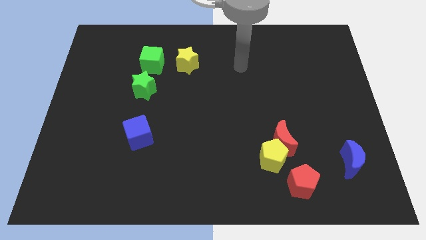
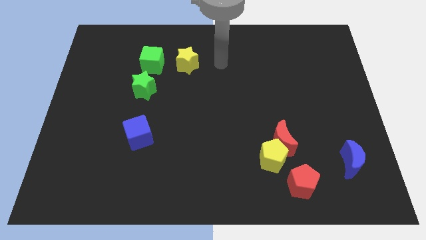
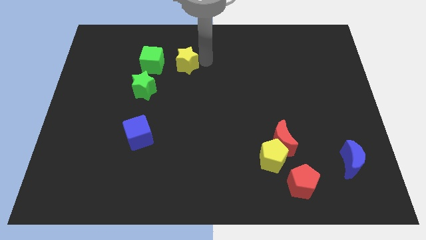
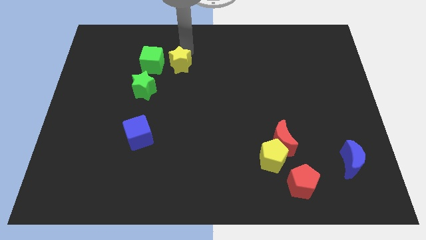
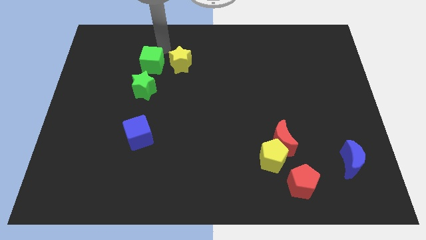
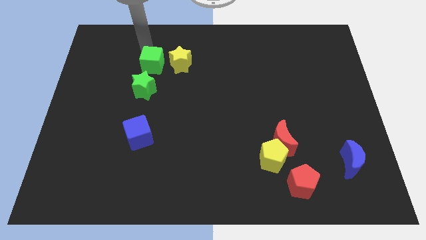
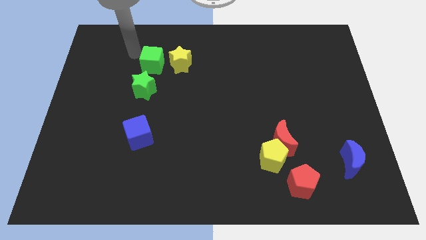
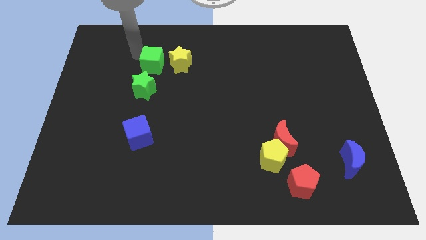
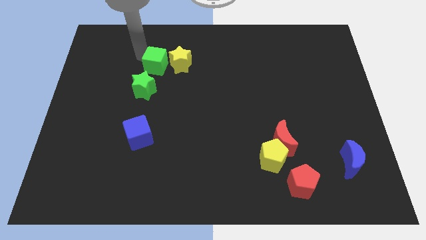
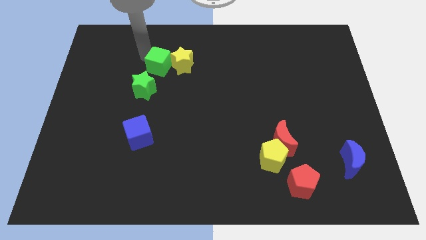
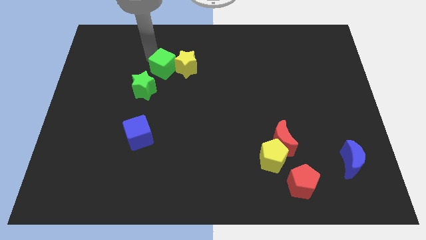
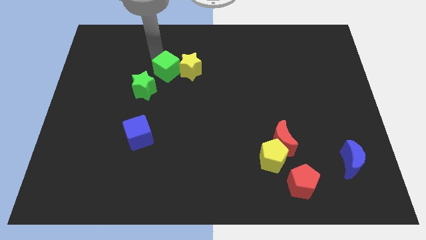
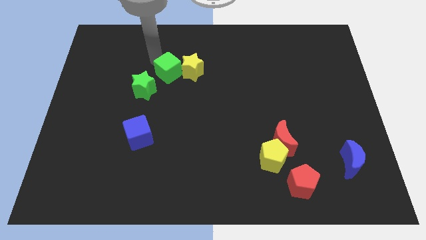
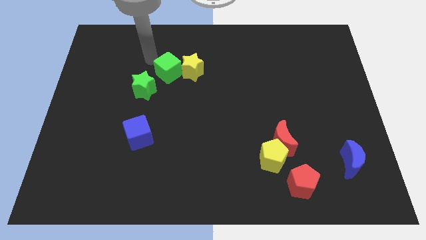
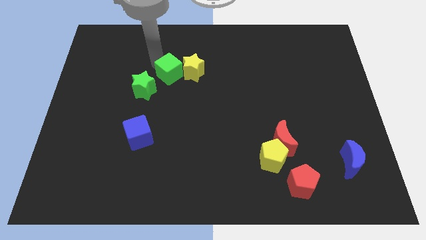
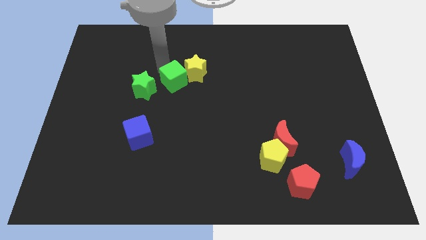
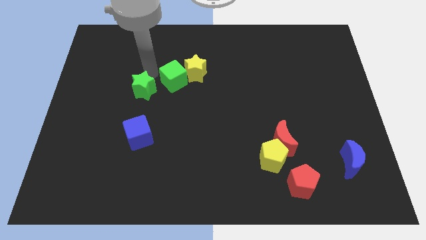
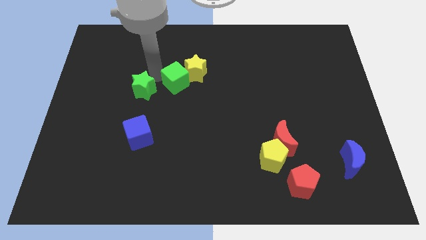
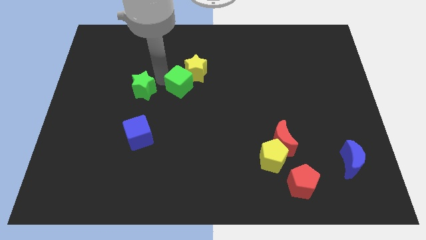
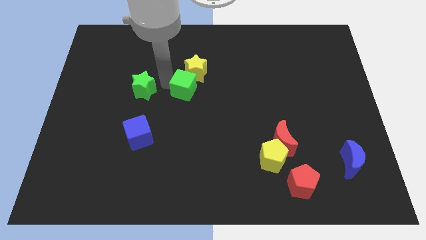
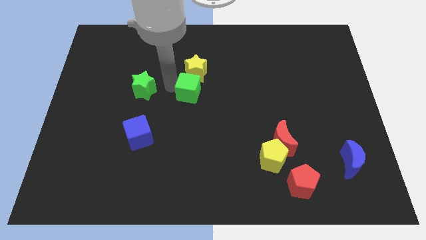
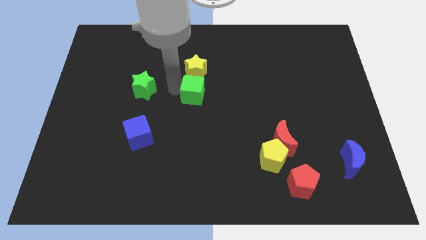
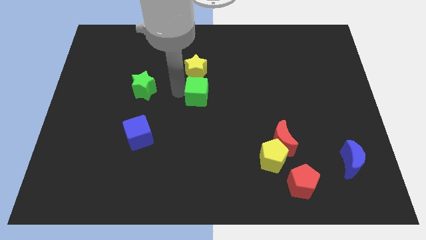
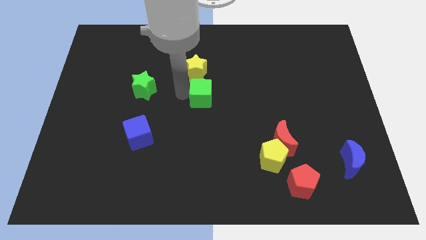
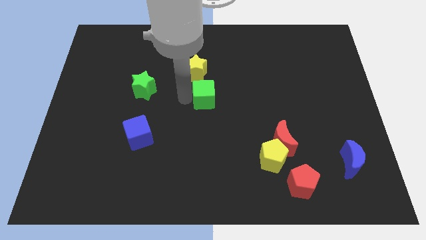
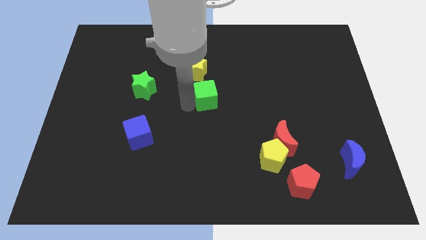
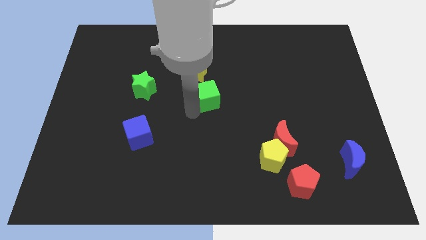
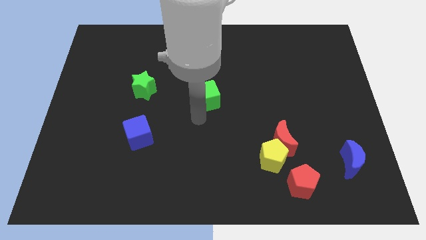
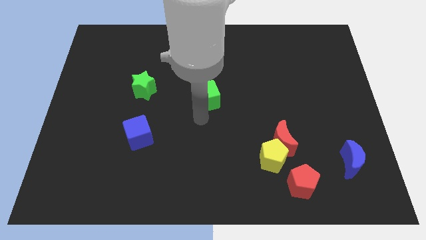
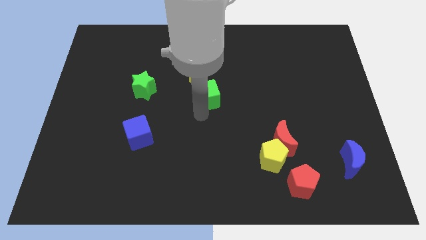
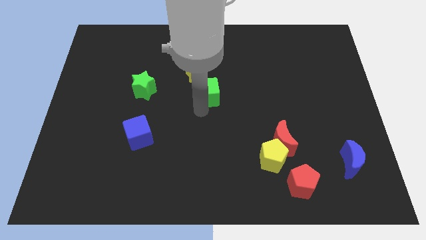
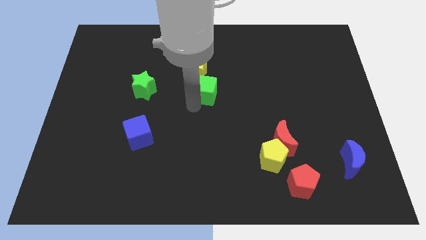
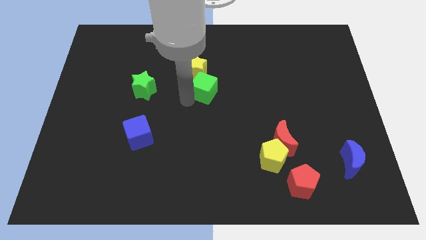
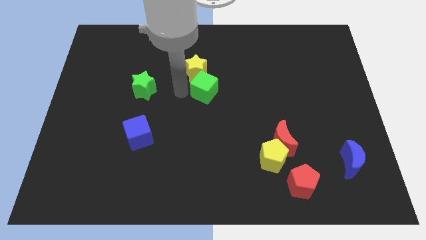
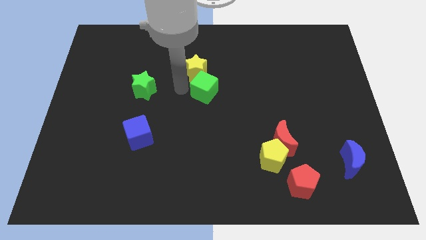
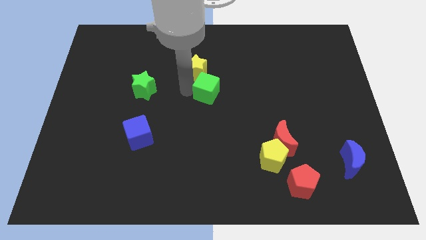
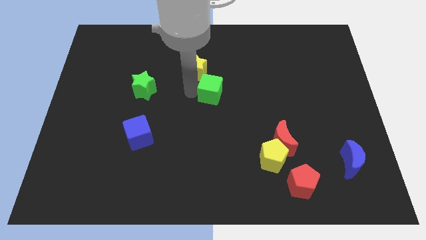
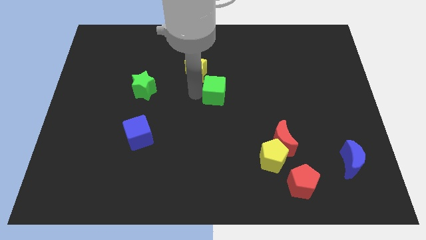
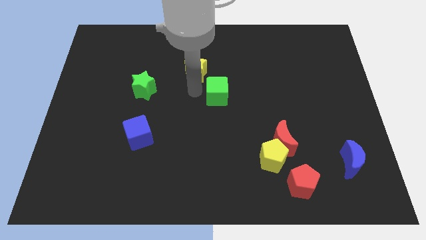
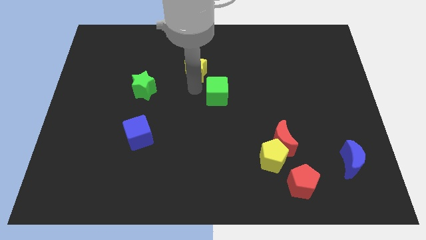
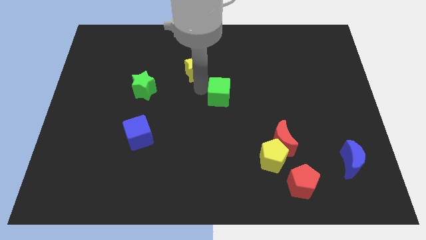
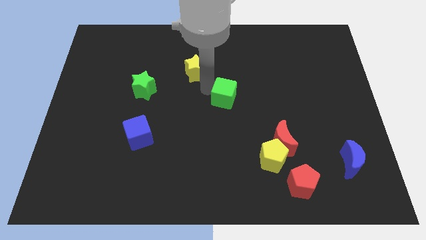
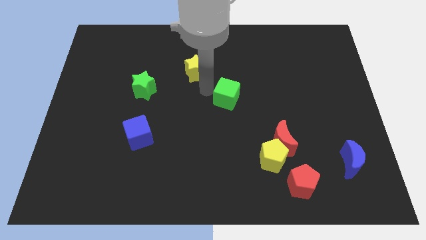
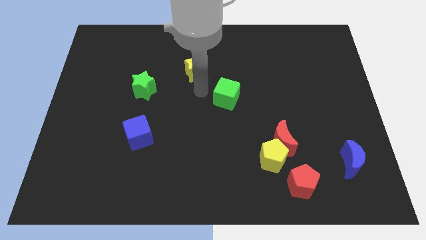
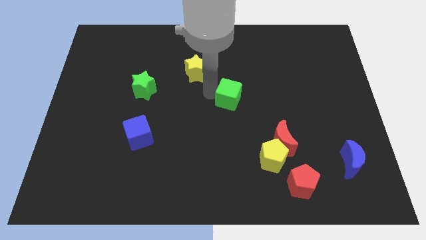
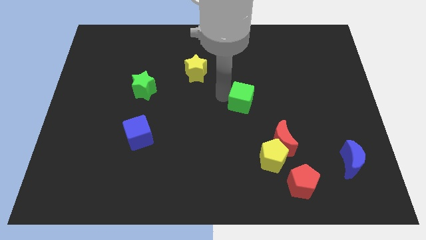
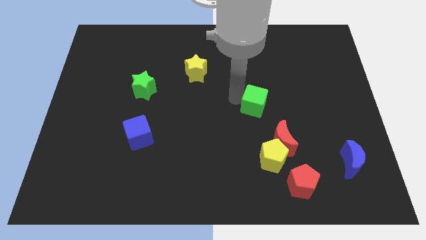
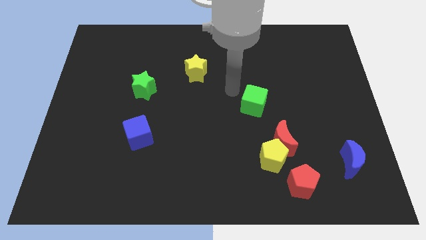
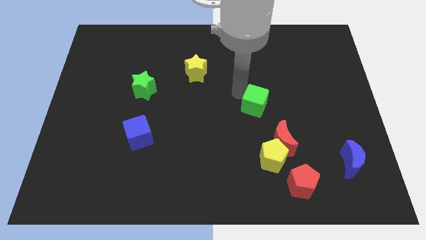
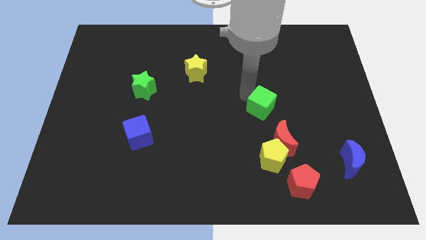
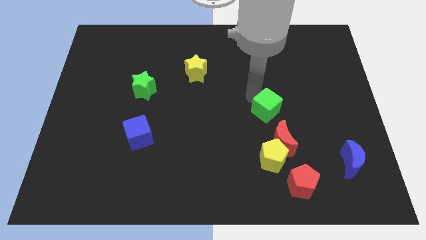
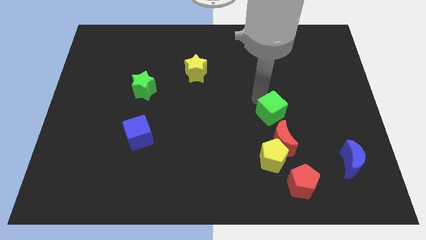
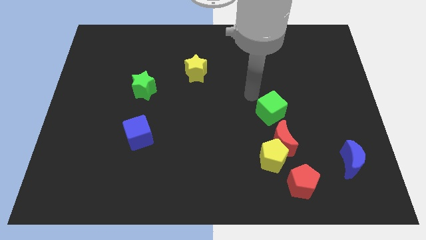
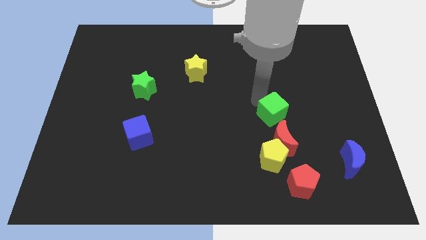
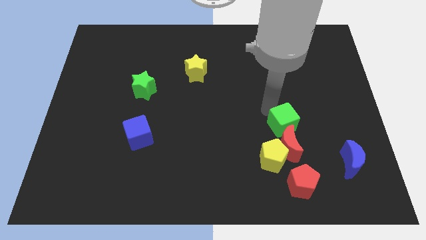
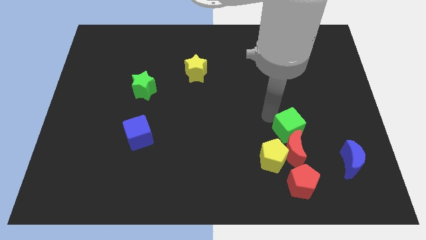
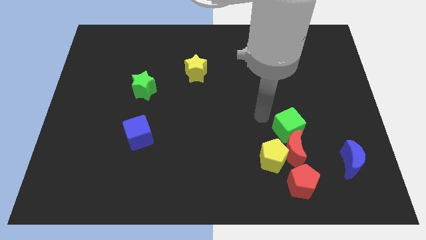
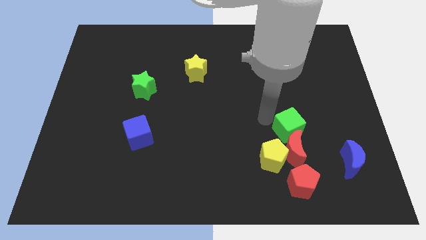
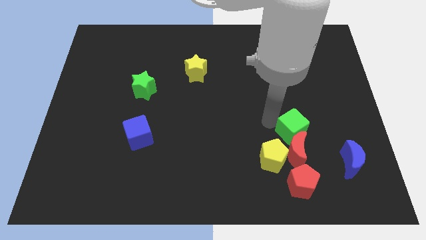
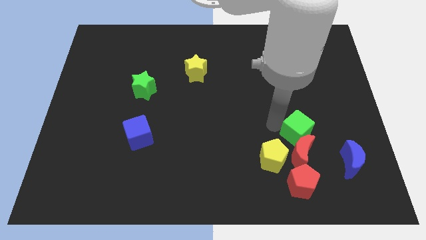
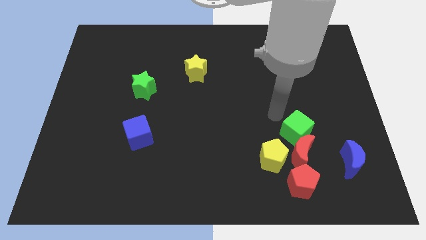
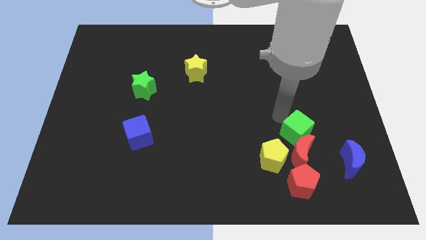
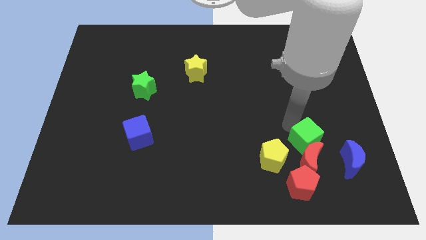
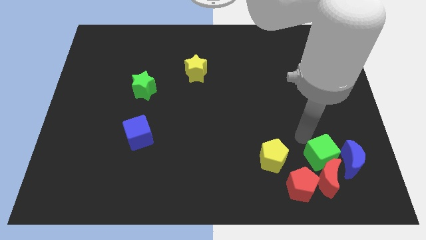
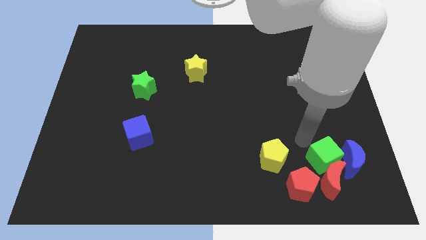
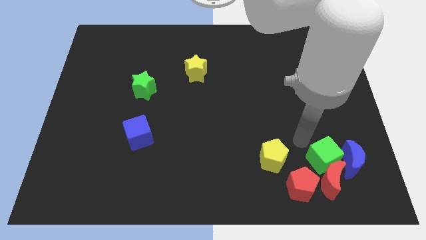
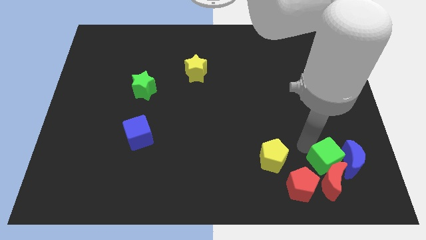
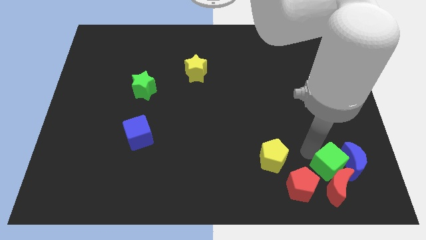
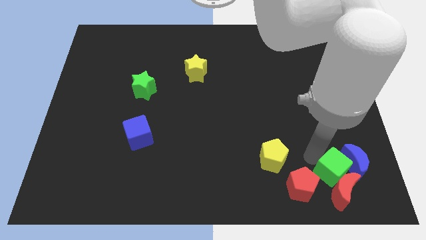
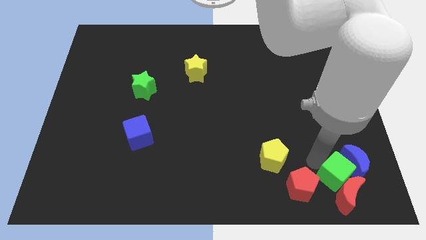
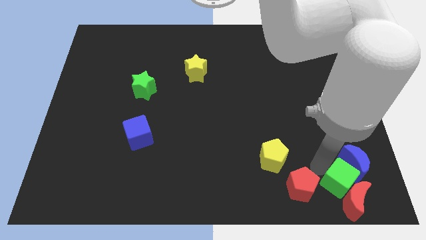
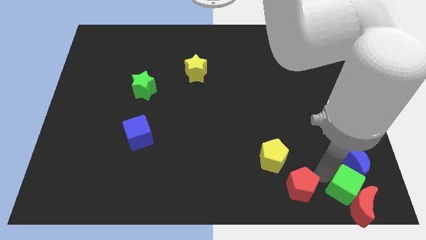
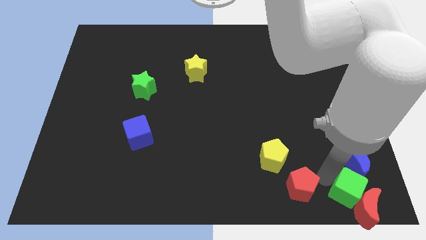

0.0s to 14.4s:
put the green cube to the bottom right of the board
